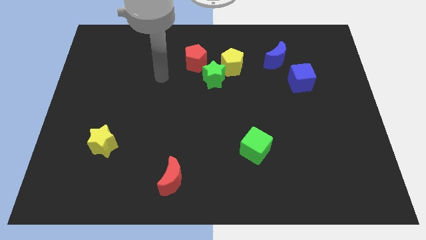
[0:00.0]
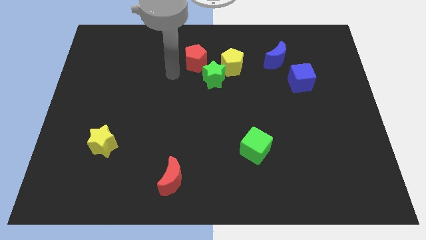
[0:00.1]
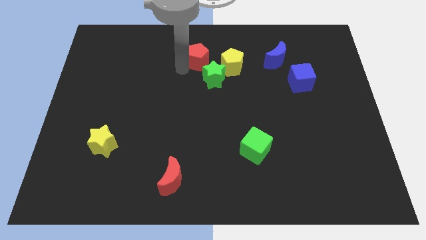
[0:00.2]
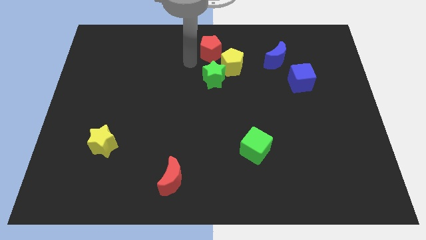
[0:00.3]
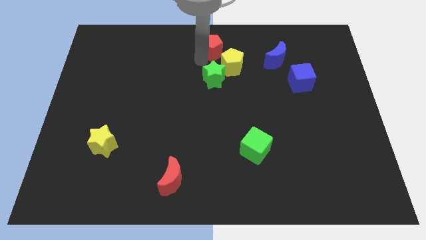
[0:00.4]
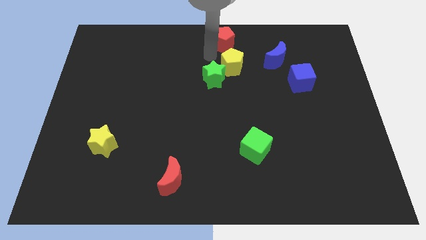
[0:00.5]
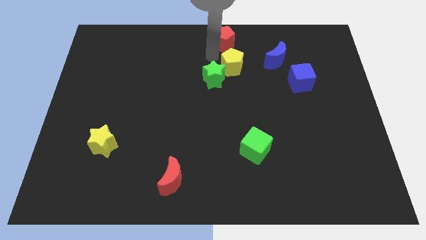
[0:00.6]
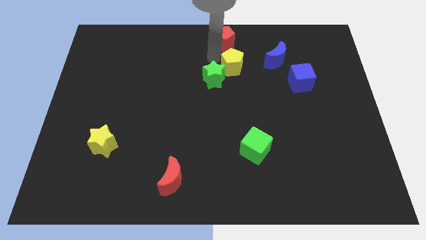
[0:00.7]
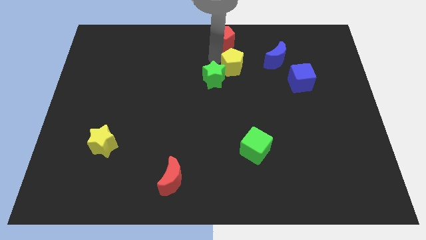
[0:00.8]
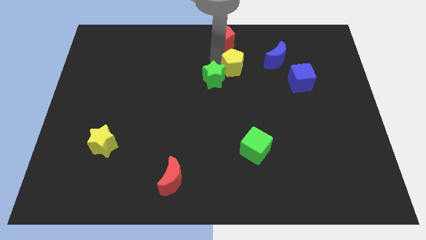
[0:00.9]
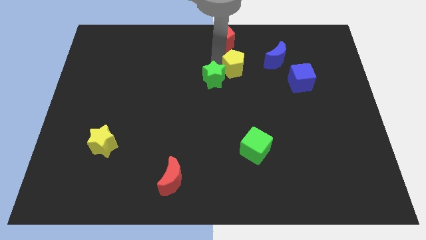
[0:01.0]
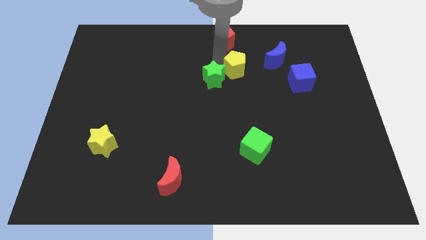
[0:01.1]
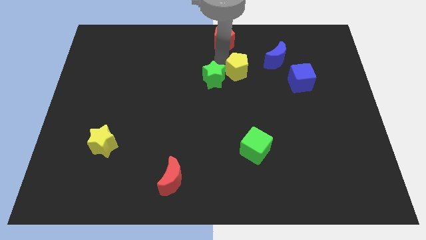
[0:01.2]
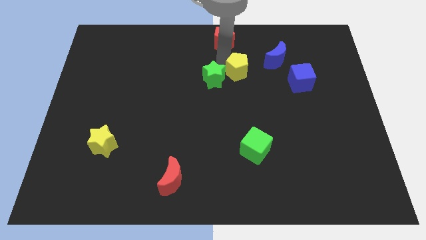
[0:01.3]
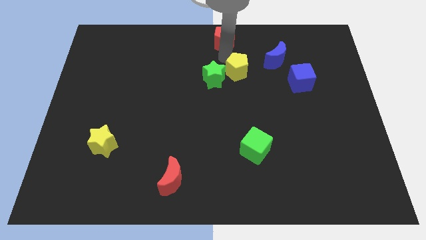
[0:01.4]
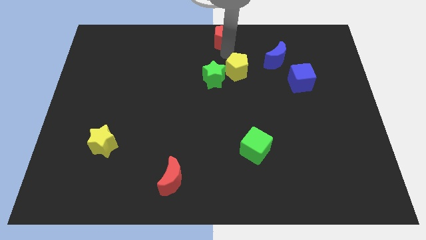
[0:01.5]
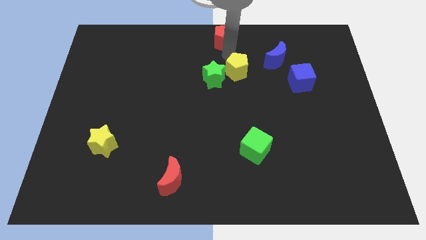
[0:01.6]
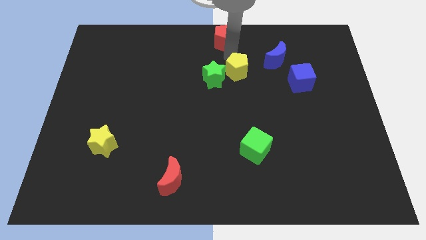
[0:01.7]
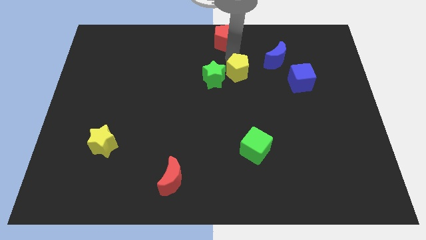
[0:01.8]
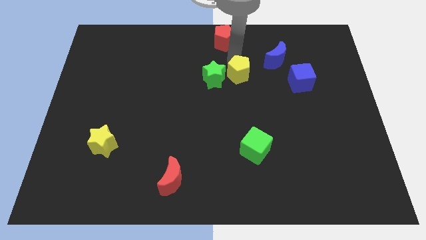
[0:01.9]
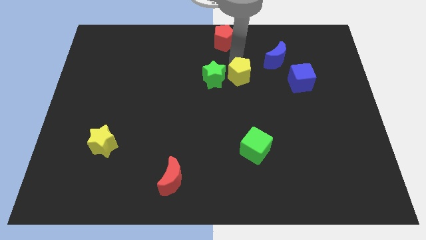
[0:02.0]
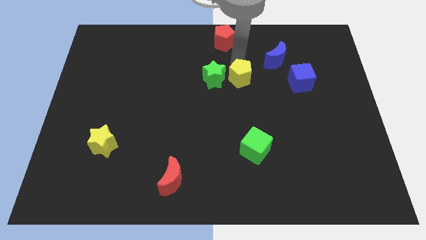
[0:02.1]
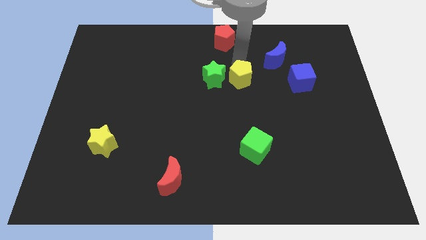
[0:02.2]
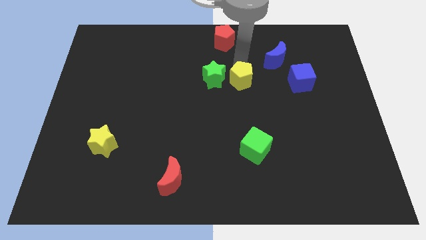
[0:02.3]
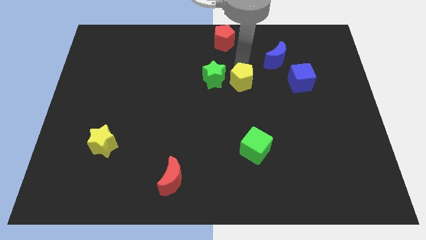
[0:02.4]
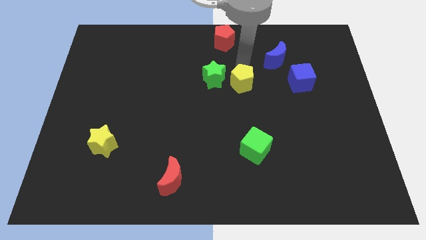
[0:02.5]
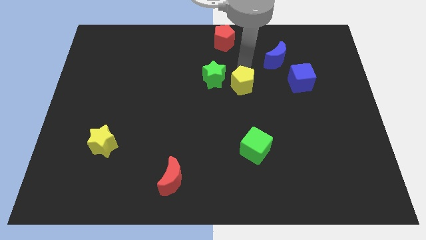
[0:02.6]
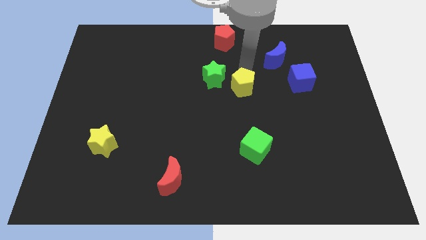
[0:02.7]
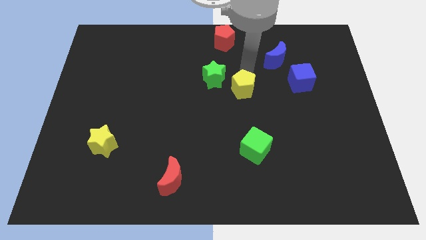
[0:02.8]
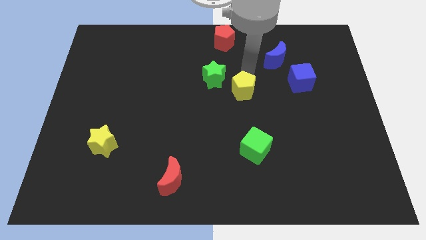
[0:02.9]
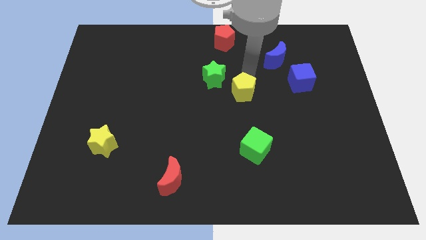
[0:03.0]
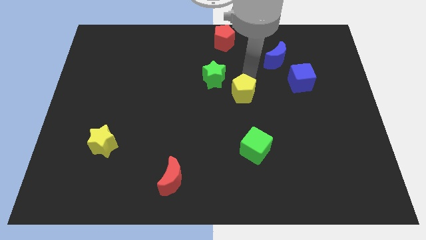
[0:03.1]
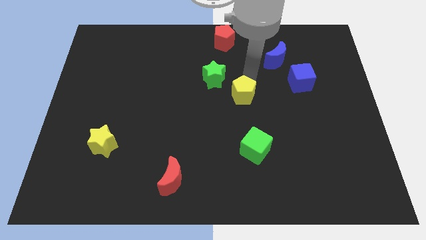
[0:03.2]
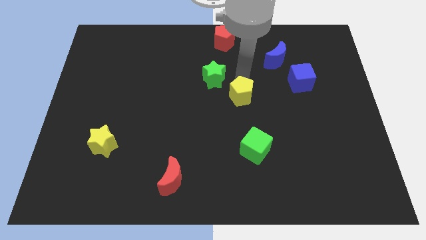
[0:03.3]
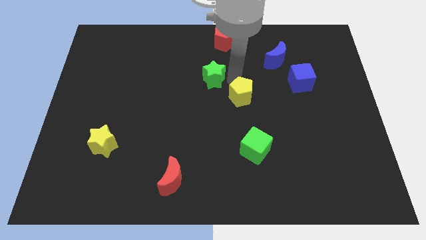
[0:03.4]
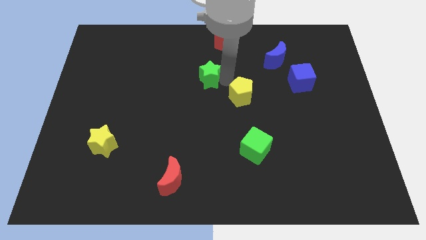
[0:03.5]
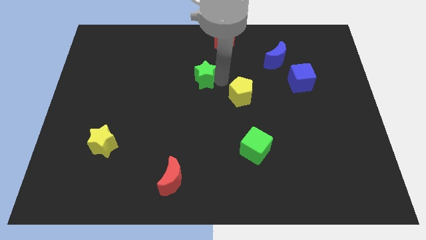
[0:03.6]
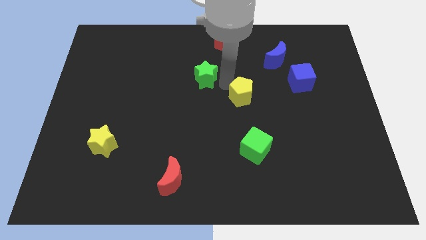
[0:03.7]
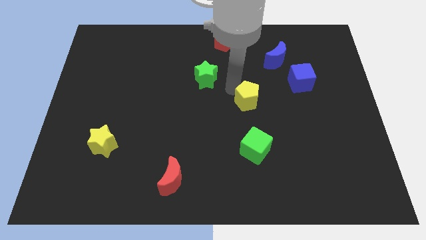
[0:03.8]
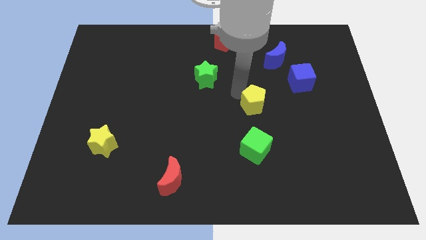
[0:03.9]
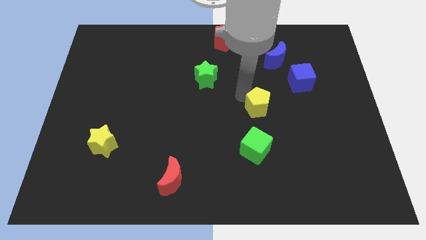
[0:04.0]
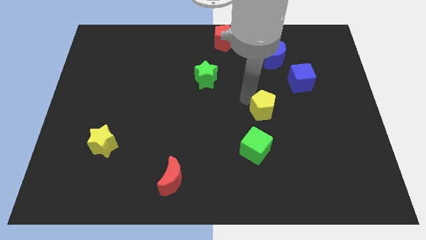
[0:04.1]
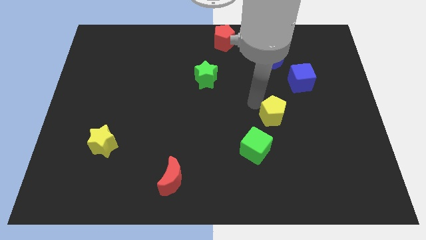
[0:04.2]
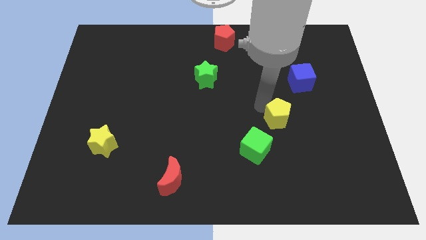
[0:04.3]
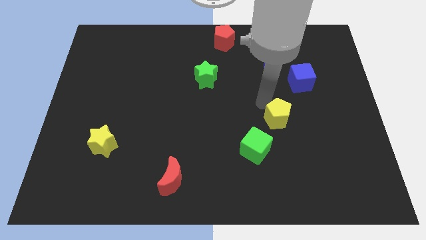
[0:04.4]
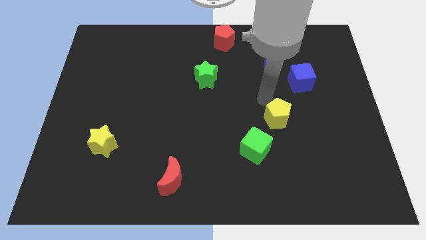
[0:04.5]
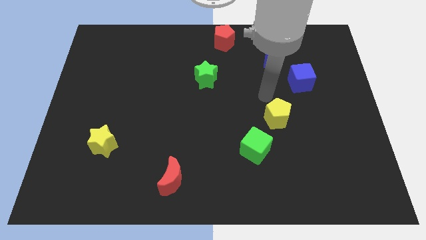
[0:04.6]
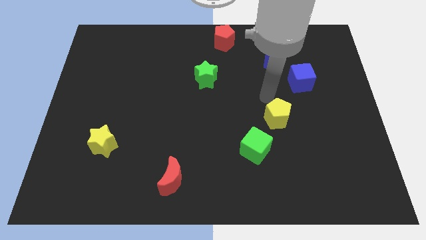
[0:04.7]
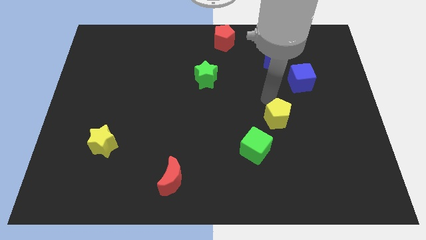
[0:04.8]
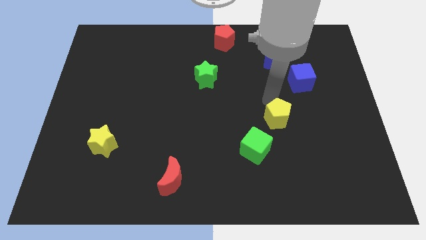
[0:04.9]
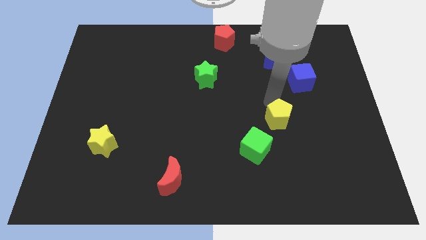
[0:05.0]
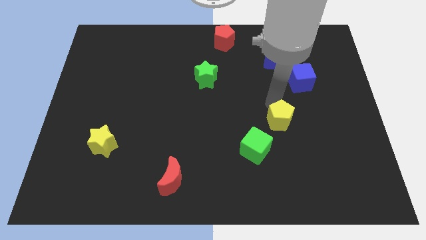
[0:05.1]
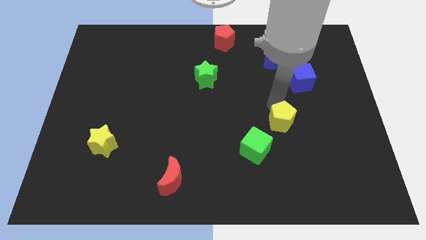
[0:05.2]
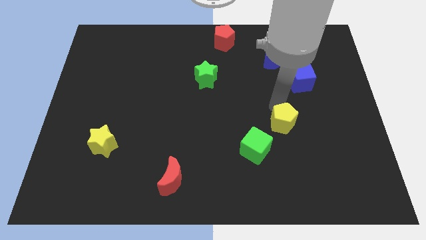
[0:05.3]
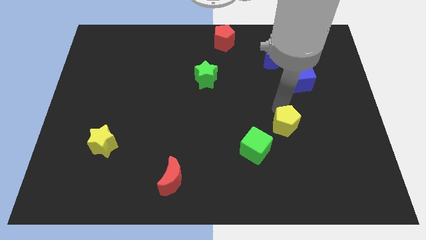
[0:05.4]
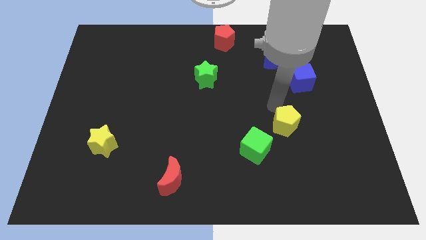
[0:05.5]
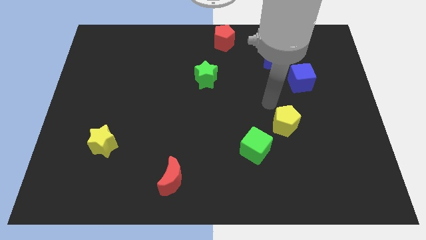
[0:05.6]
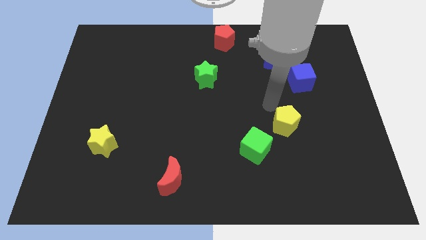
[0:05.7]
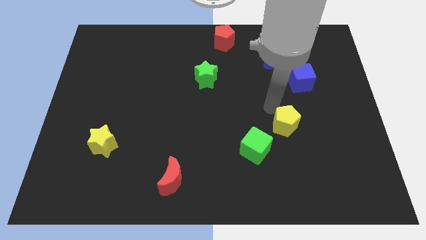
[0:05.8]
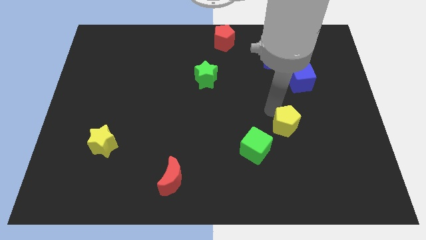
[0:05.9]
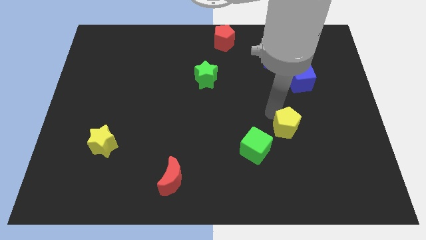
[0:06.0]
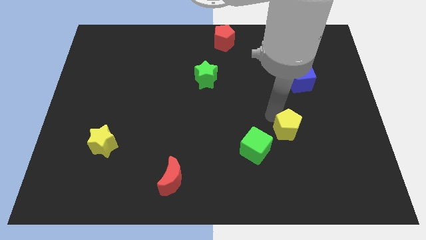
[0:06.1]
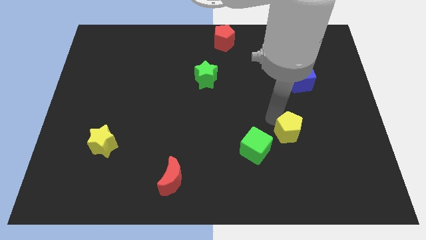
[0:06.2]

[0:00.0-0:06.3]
put the yellow pentagon just right of the green cube

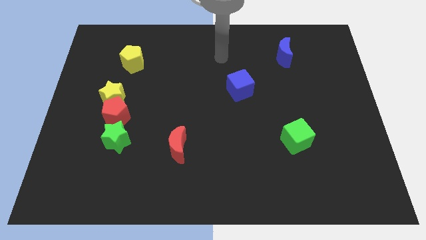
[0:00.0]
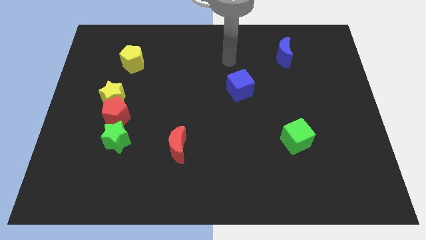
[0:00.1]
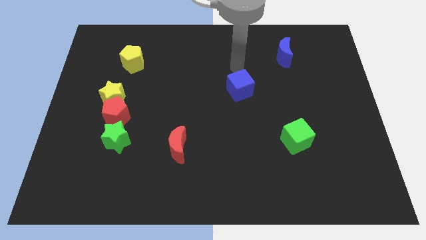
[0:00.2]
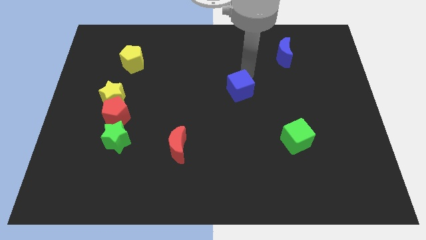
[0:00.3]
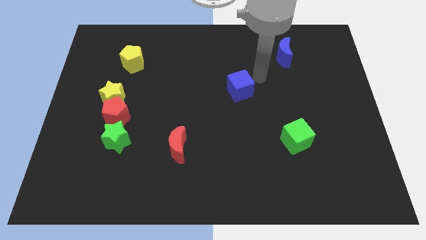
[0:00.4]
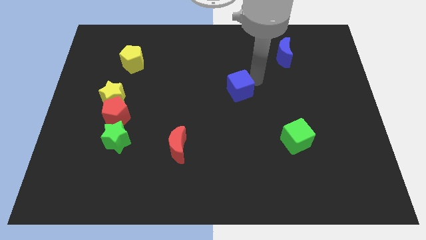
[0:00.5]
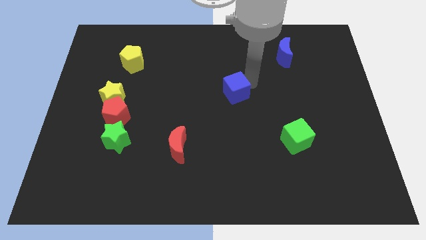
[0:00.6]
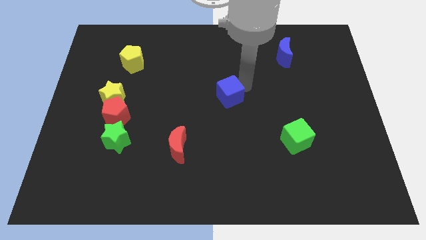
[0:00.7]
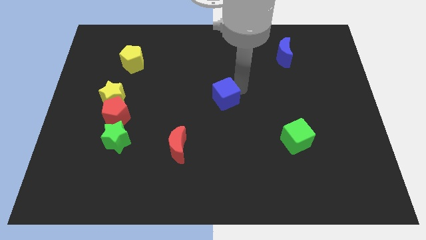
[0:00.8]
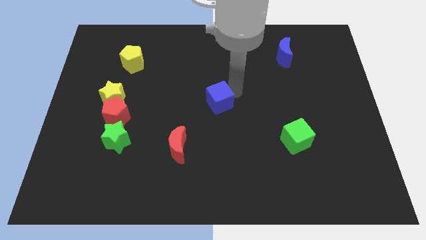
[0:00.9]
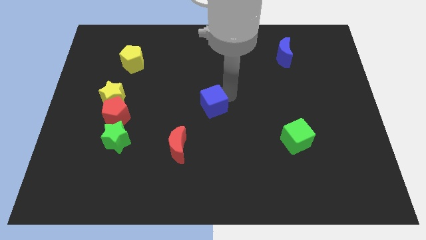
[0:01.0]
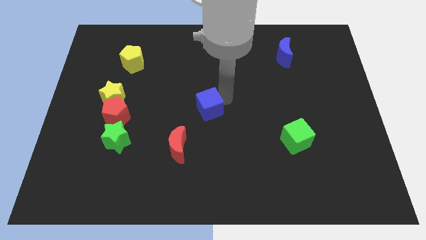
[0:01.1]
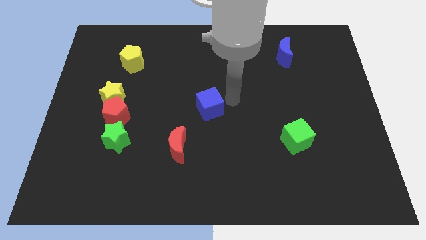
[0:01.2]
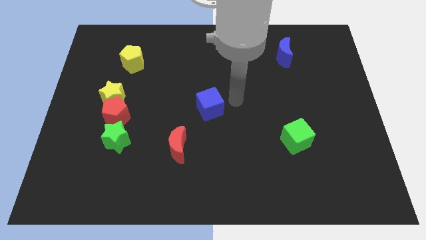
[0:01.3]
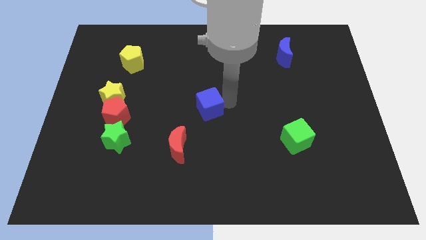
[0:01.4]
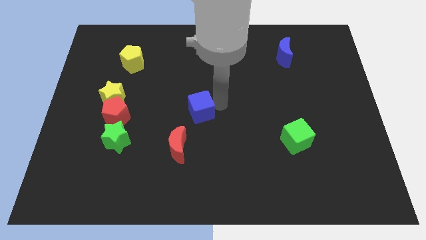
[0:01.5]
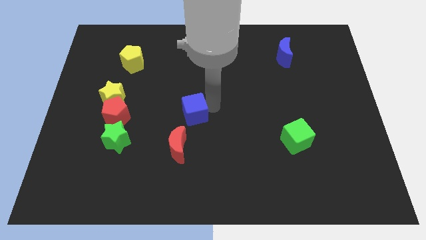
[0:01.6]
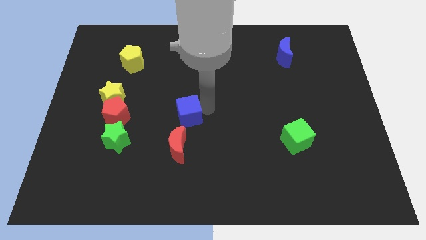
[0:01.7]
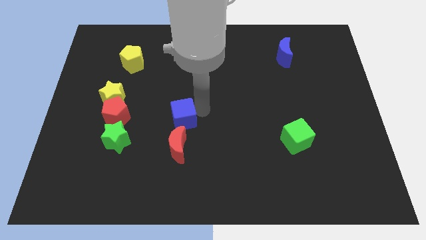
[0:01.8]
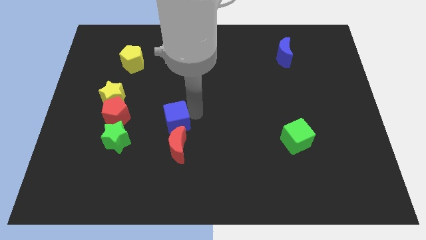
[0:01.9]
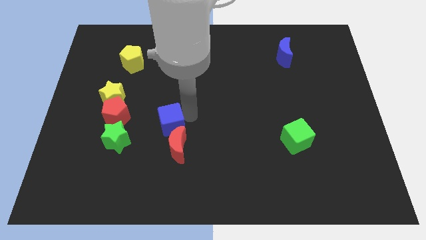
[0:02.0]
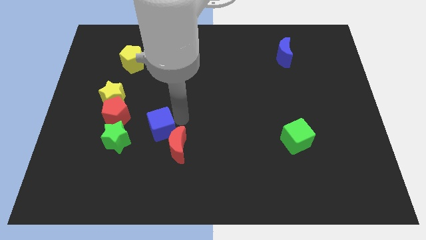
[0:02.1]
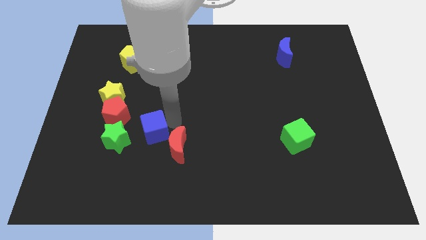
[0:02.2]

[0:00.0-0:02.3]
slide the blue cube to the bottom right of the red pentagon
